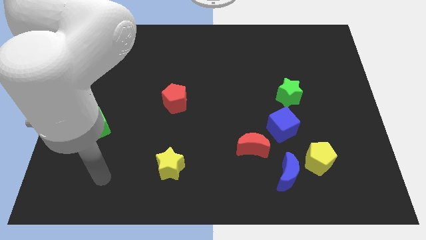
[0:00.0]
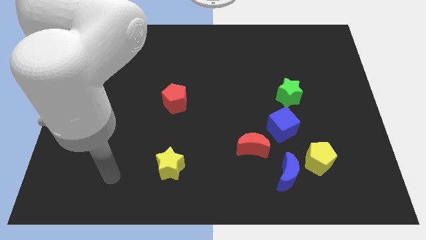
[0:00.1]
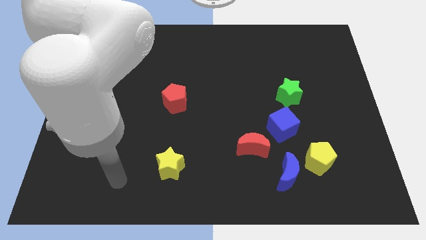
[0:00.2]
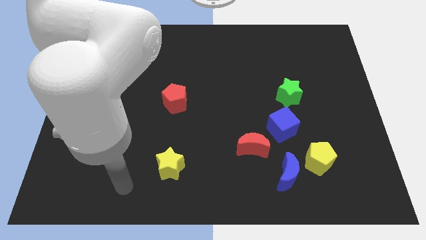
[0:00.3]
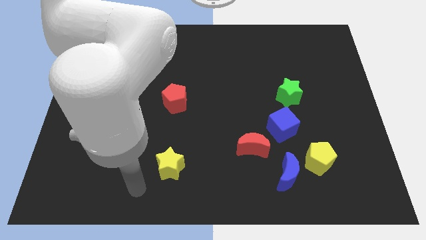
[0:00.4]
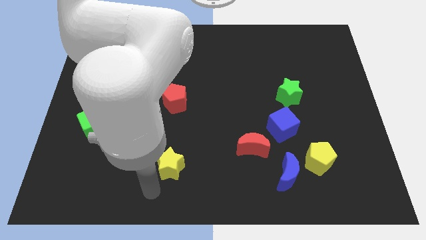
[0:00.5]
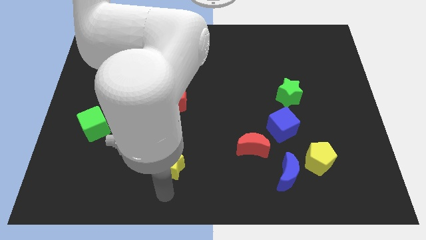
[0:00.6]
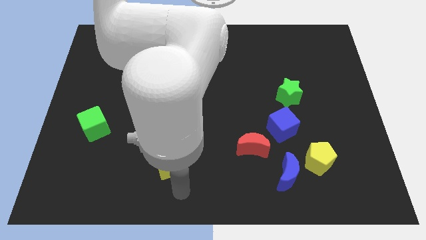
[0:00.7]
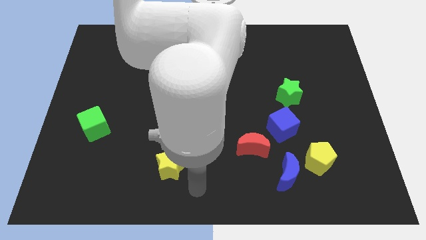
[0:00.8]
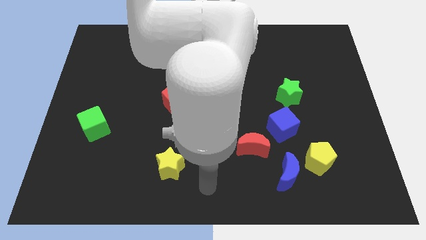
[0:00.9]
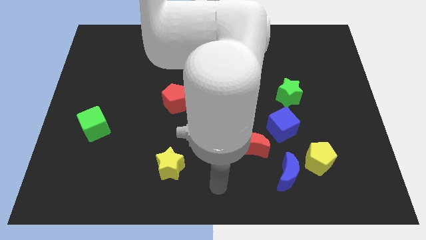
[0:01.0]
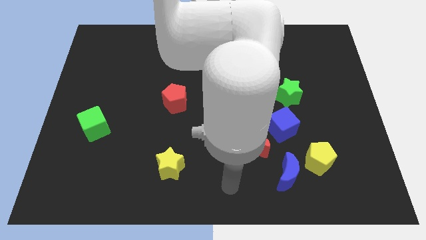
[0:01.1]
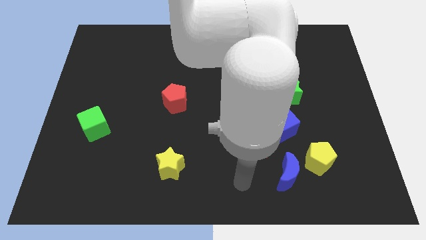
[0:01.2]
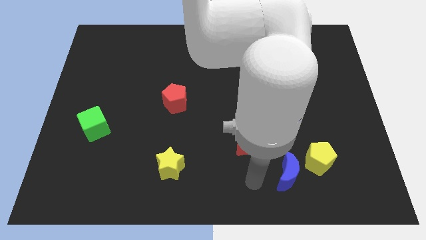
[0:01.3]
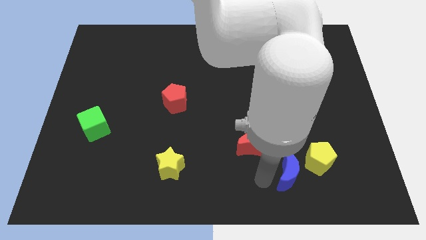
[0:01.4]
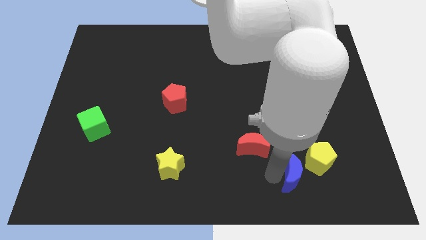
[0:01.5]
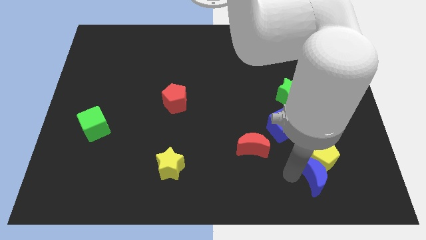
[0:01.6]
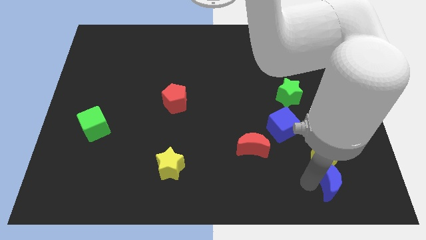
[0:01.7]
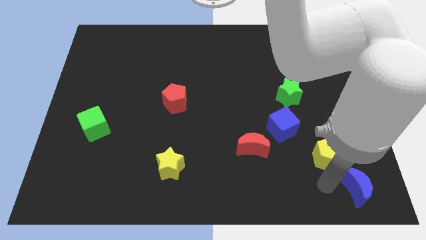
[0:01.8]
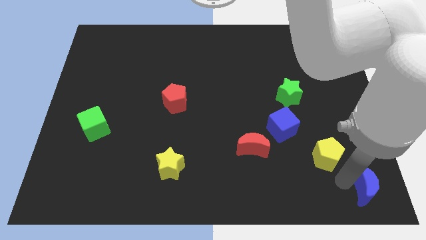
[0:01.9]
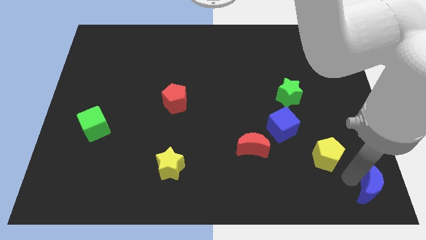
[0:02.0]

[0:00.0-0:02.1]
pull the yellow pentagon apart from the blue moon

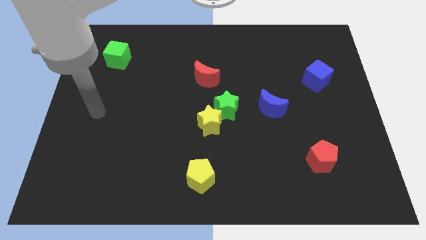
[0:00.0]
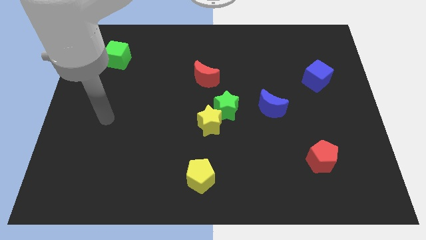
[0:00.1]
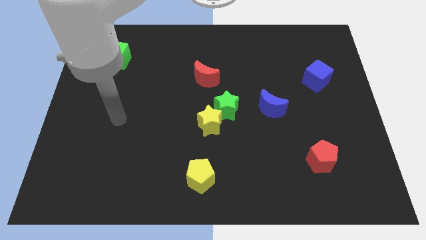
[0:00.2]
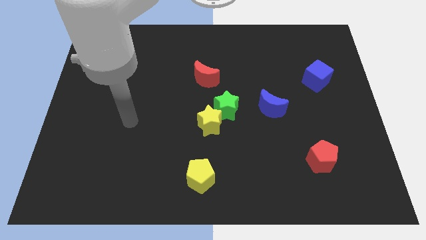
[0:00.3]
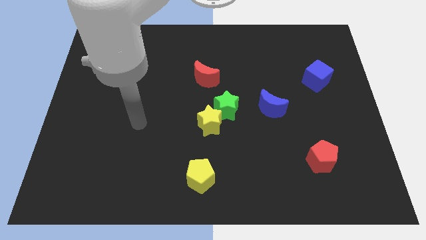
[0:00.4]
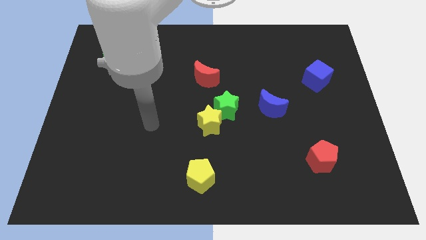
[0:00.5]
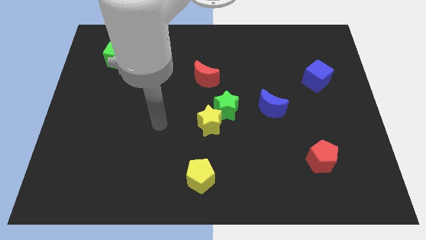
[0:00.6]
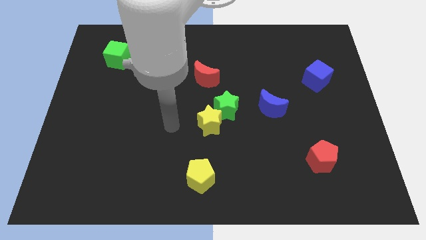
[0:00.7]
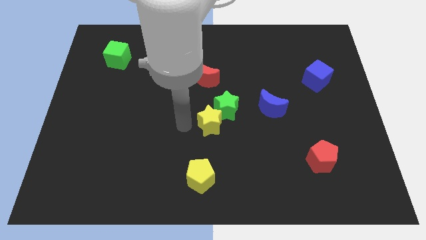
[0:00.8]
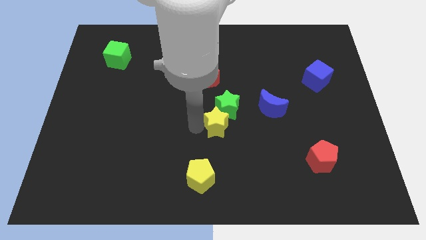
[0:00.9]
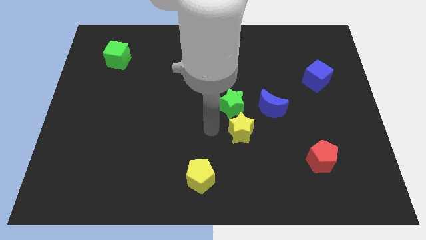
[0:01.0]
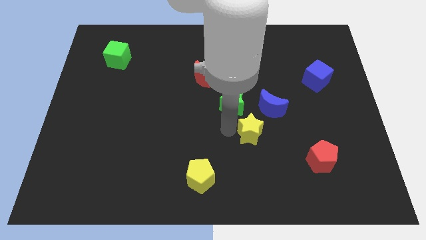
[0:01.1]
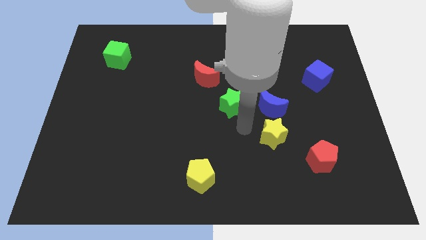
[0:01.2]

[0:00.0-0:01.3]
move the green star away from the yellow star

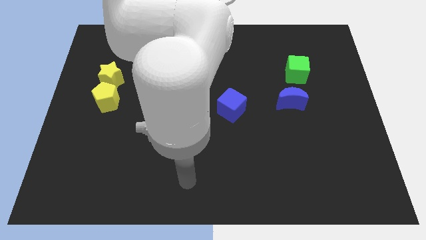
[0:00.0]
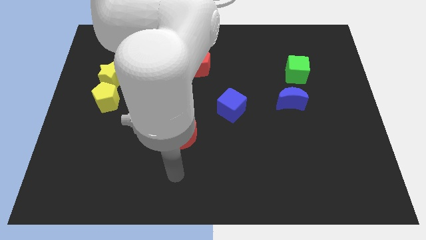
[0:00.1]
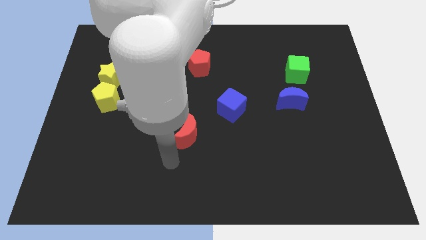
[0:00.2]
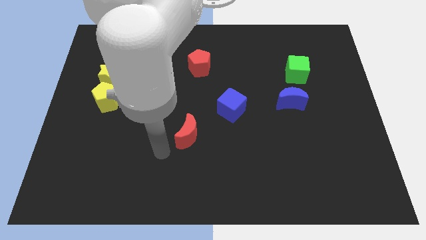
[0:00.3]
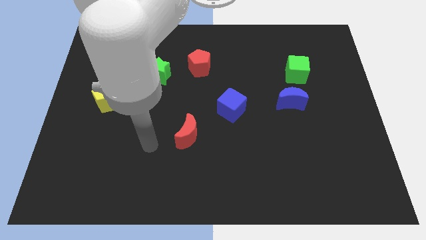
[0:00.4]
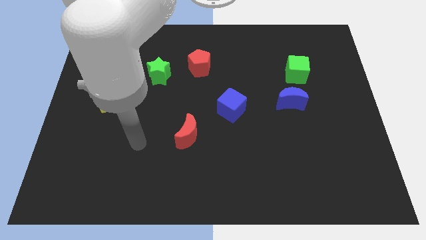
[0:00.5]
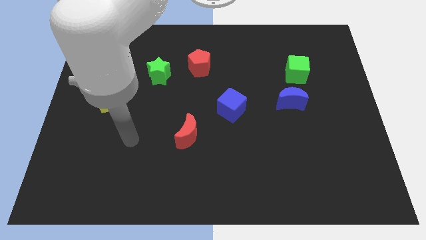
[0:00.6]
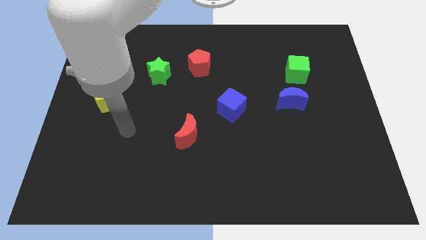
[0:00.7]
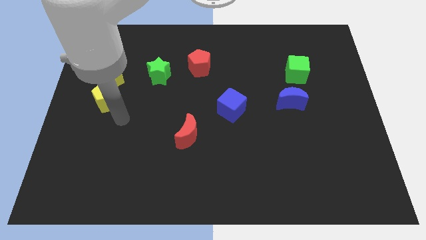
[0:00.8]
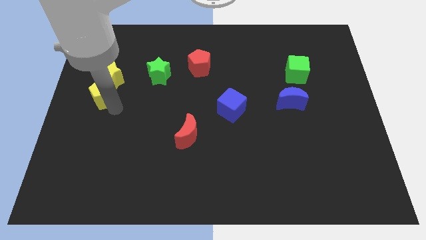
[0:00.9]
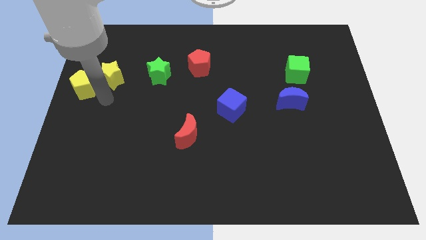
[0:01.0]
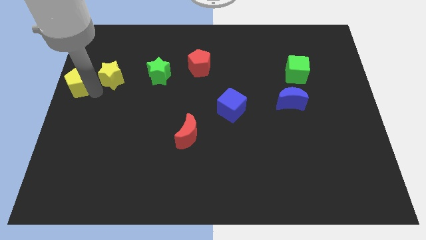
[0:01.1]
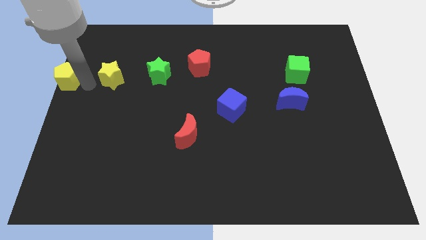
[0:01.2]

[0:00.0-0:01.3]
pull the yellow star apart from the yellow pentagon

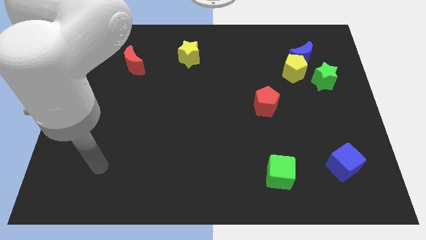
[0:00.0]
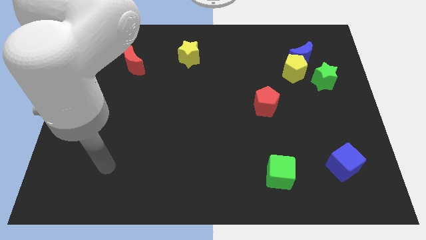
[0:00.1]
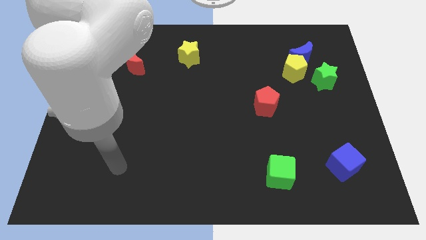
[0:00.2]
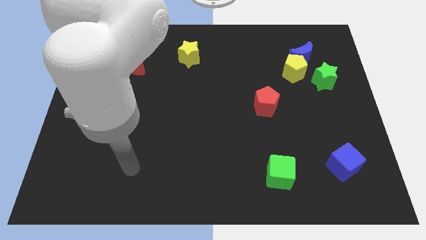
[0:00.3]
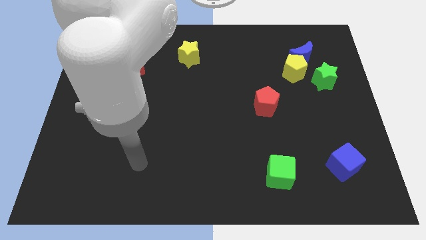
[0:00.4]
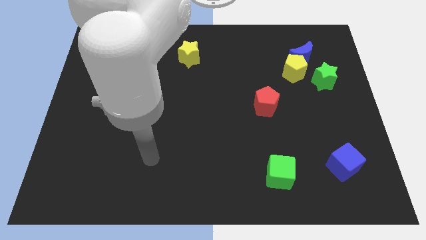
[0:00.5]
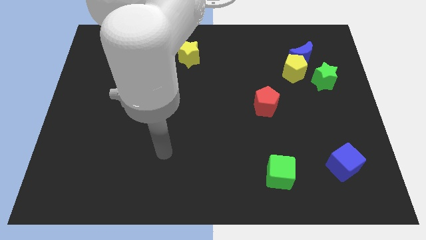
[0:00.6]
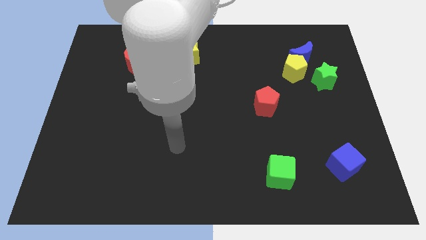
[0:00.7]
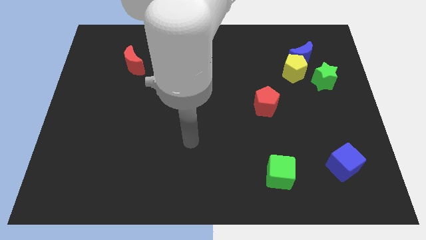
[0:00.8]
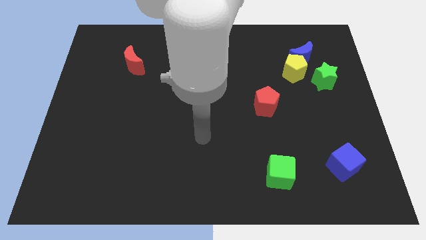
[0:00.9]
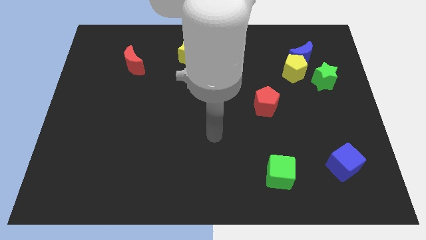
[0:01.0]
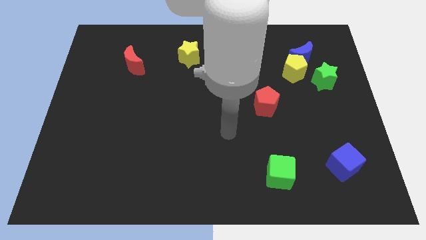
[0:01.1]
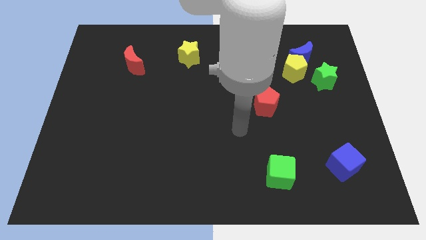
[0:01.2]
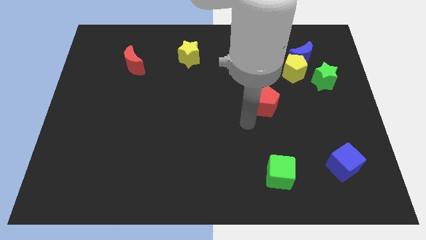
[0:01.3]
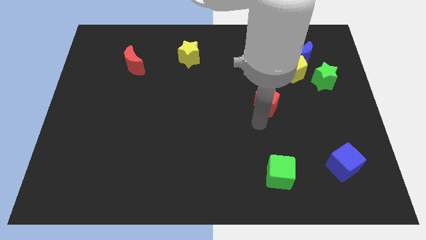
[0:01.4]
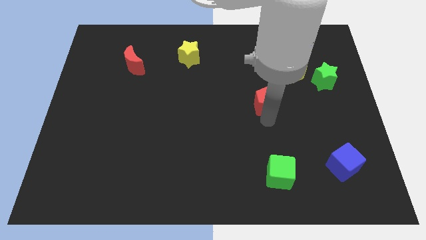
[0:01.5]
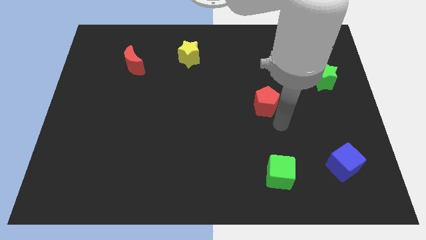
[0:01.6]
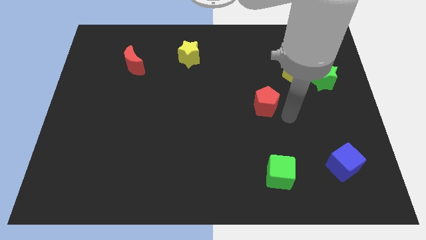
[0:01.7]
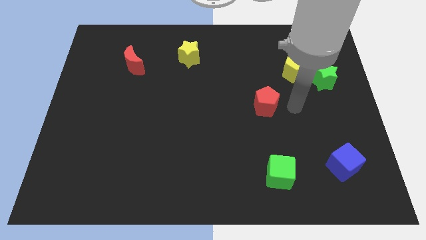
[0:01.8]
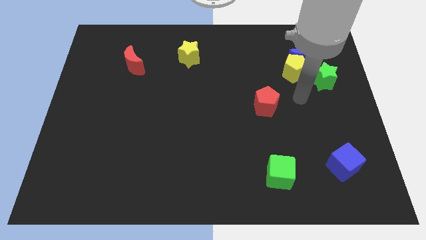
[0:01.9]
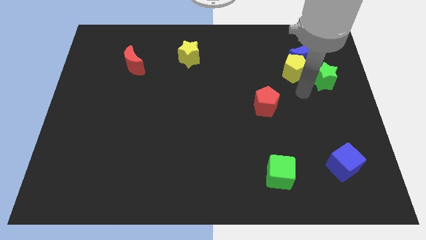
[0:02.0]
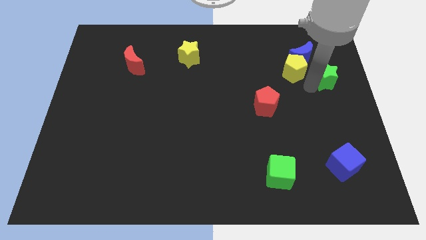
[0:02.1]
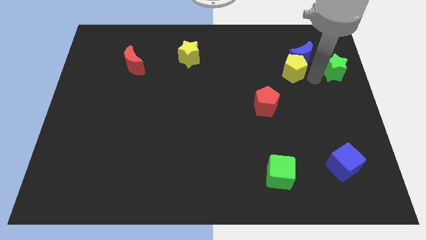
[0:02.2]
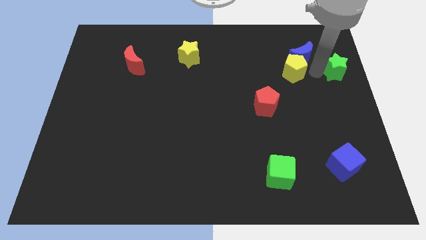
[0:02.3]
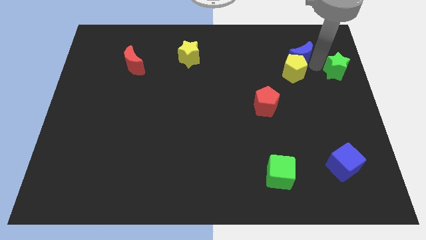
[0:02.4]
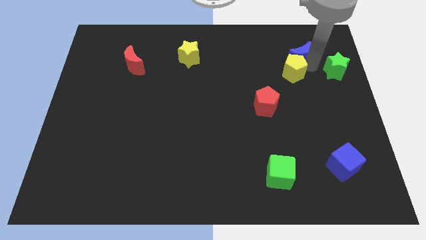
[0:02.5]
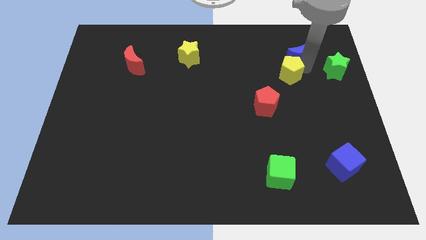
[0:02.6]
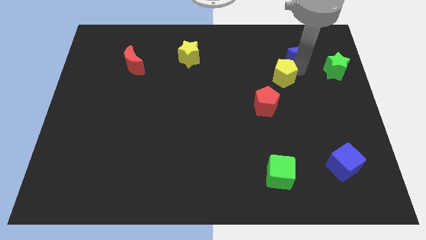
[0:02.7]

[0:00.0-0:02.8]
pull the yellow pentagon apart from the blue moon and green star

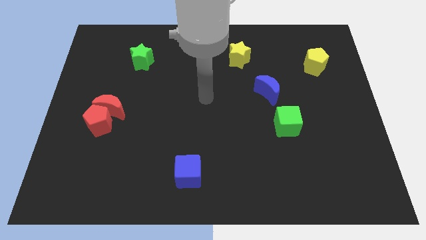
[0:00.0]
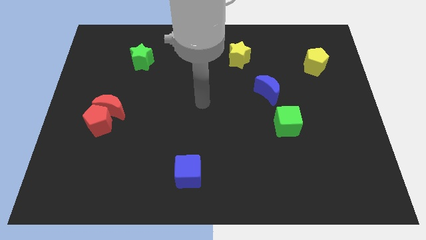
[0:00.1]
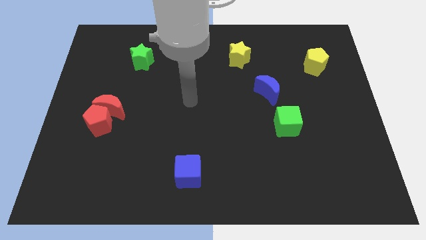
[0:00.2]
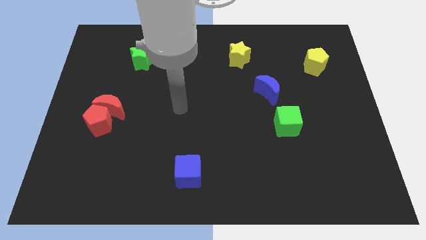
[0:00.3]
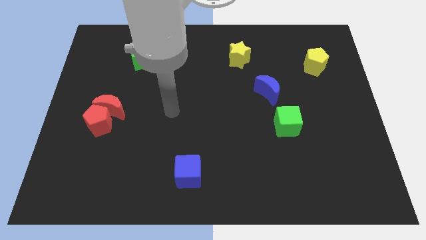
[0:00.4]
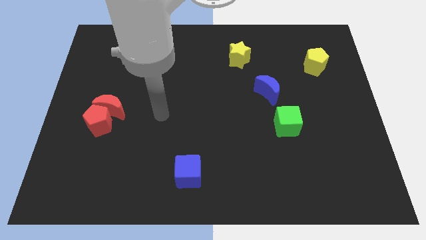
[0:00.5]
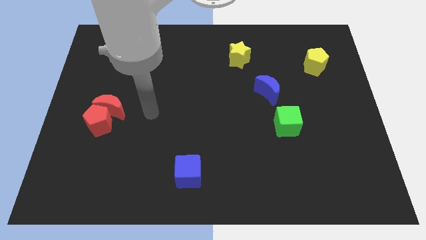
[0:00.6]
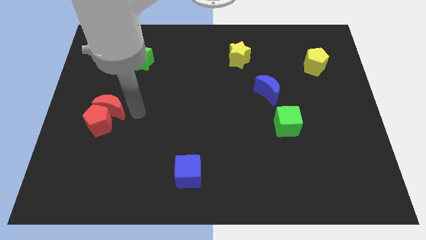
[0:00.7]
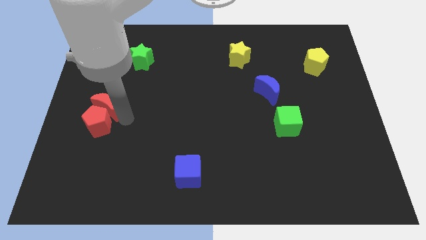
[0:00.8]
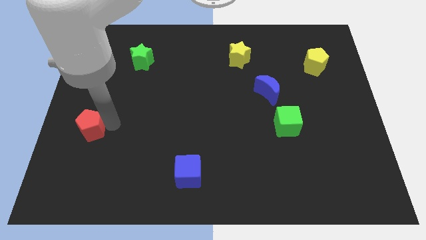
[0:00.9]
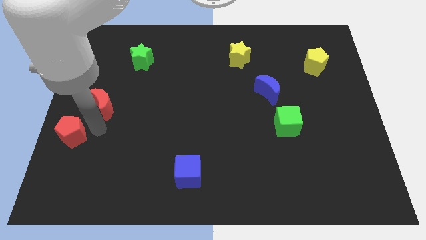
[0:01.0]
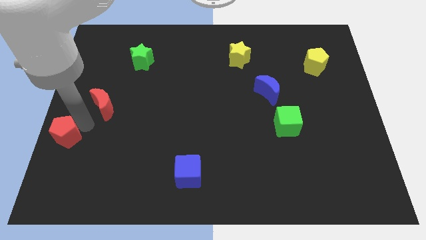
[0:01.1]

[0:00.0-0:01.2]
pull the red moon apart from the red pentagon

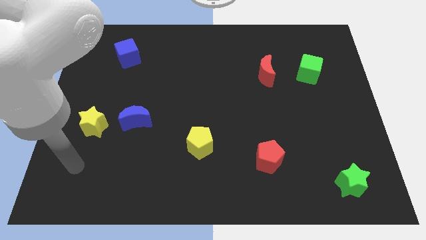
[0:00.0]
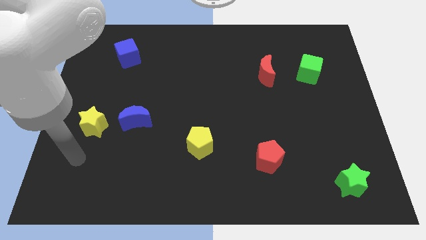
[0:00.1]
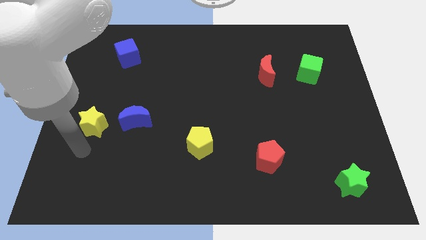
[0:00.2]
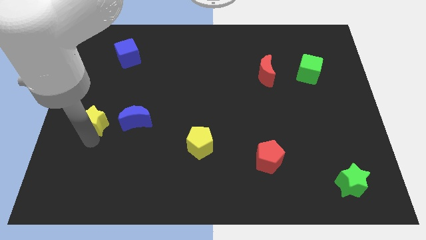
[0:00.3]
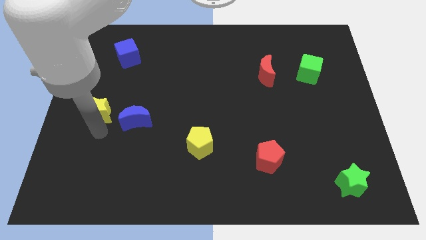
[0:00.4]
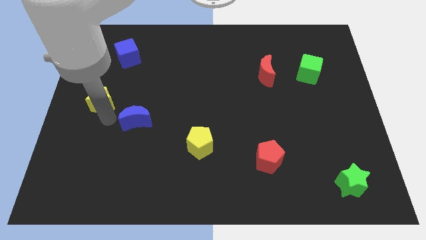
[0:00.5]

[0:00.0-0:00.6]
pull the blue moon apart from the yellow star
